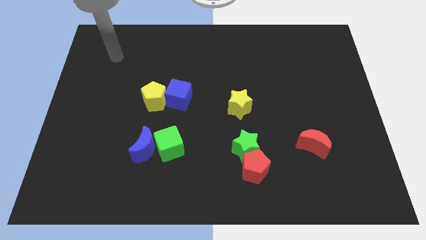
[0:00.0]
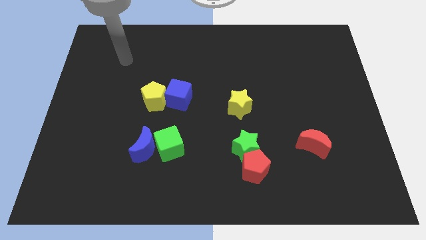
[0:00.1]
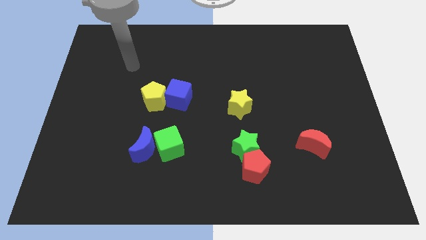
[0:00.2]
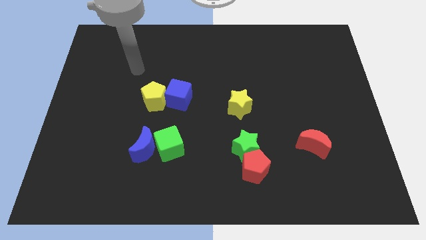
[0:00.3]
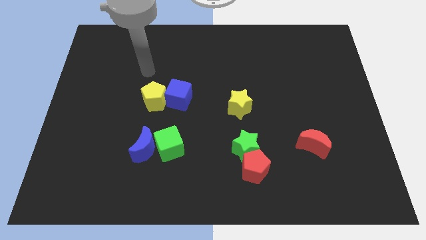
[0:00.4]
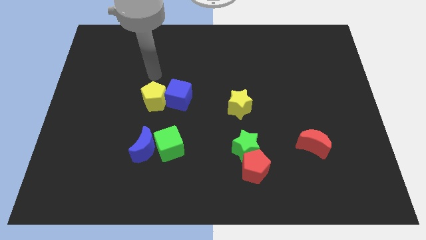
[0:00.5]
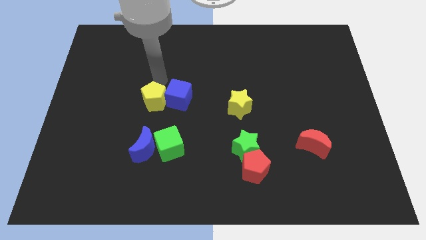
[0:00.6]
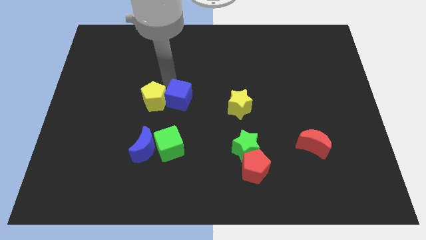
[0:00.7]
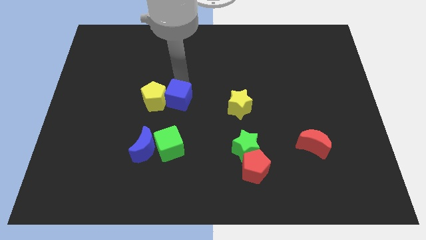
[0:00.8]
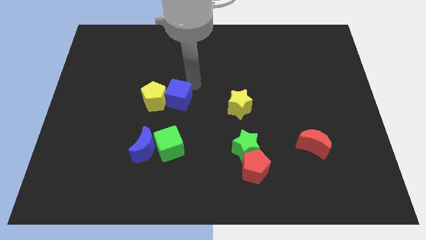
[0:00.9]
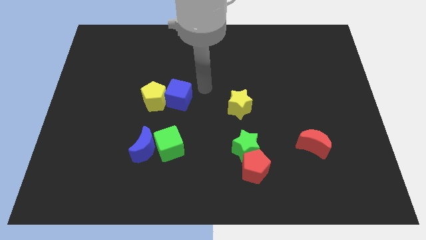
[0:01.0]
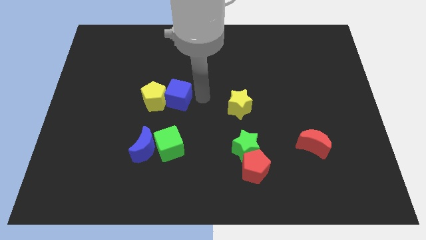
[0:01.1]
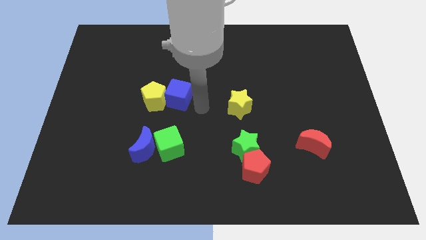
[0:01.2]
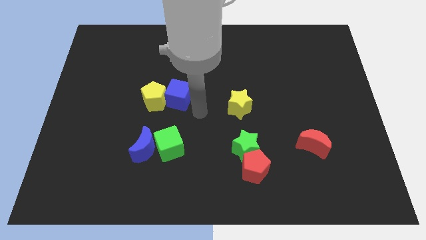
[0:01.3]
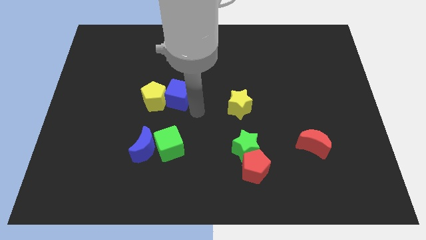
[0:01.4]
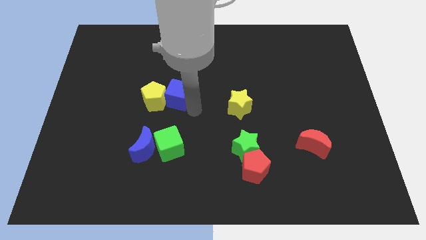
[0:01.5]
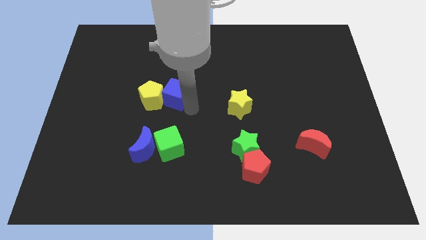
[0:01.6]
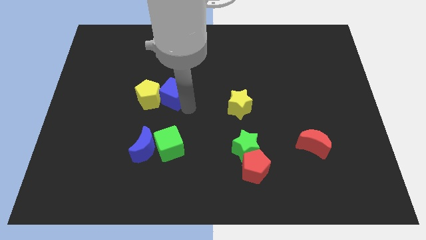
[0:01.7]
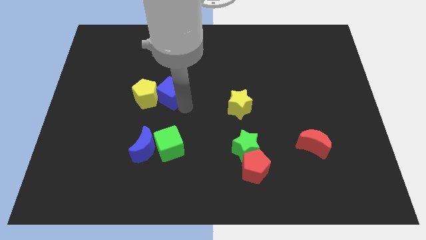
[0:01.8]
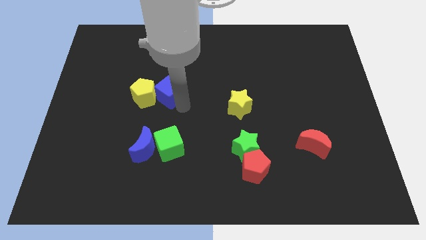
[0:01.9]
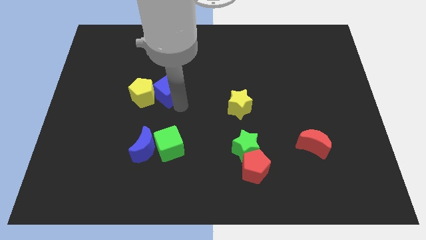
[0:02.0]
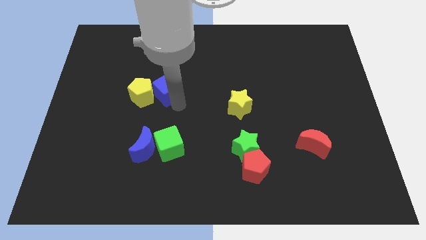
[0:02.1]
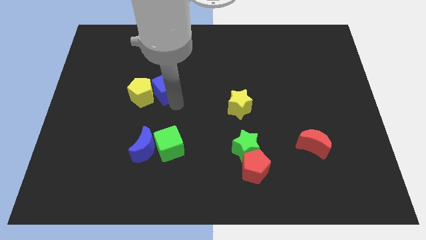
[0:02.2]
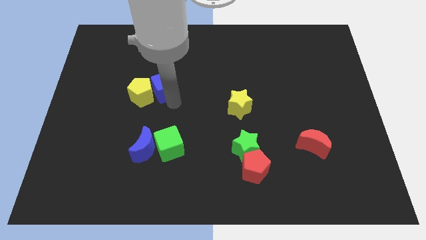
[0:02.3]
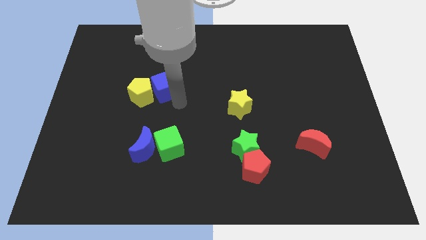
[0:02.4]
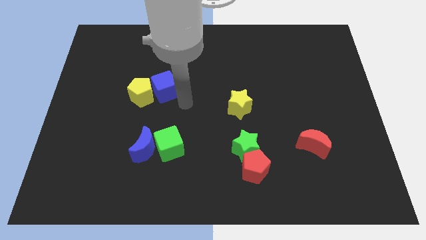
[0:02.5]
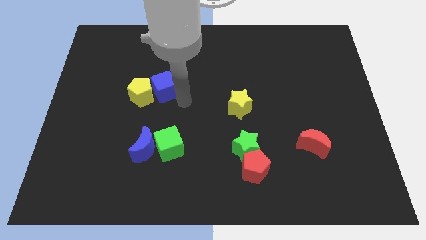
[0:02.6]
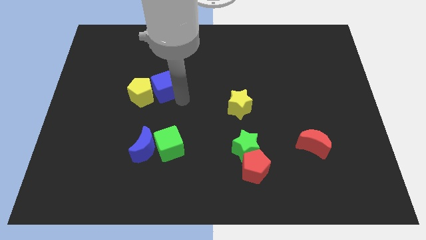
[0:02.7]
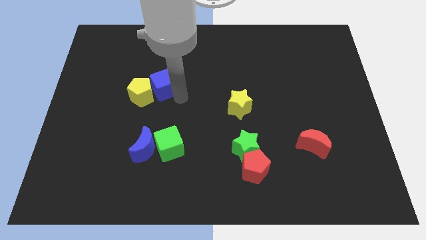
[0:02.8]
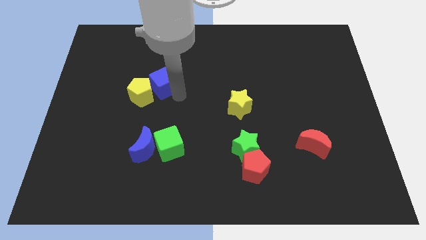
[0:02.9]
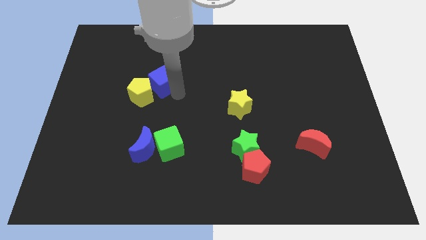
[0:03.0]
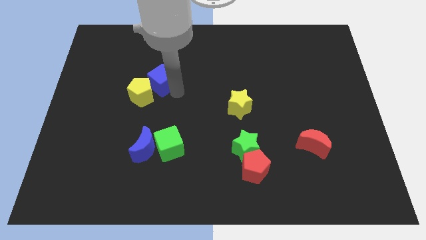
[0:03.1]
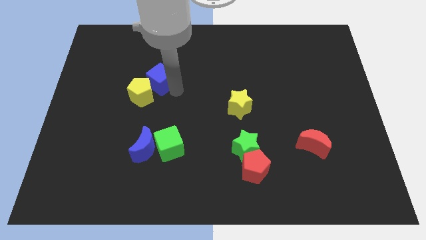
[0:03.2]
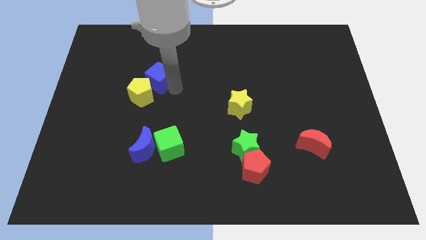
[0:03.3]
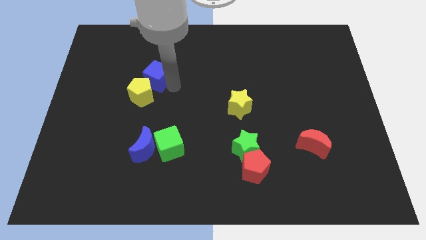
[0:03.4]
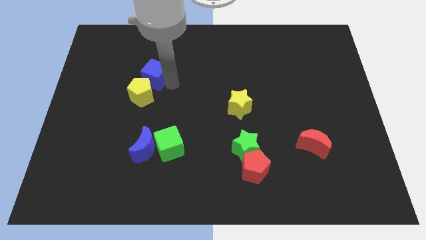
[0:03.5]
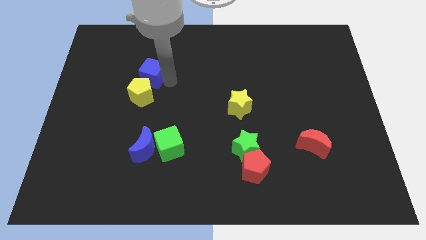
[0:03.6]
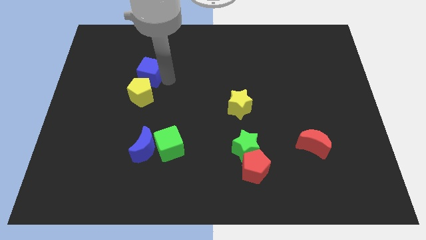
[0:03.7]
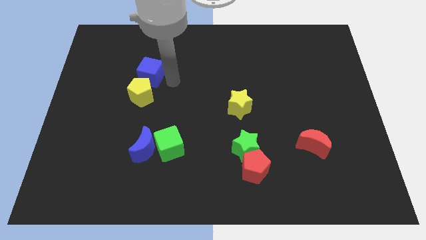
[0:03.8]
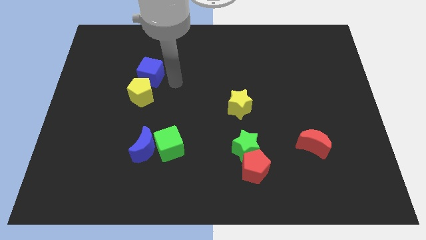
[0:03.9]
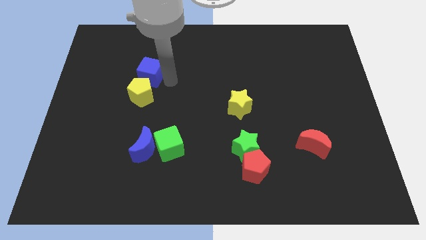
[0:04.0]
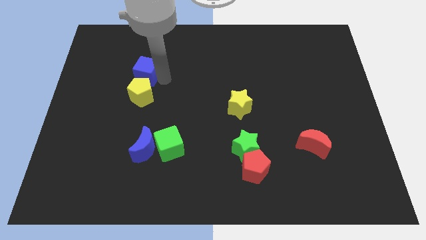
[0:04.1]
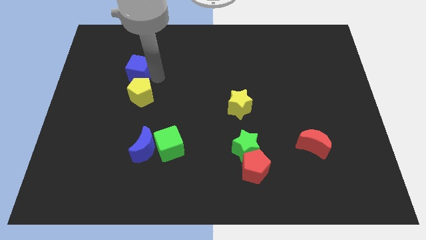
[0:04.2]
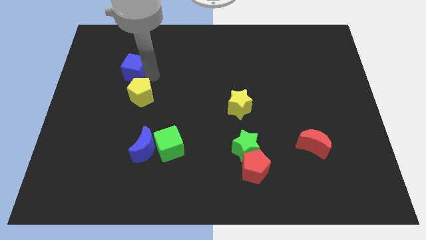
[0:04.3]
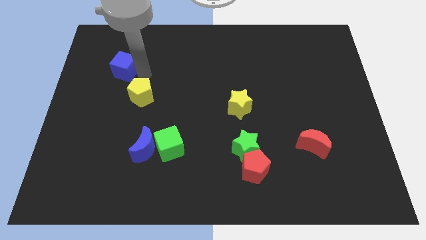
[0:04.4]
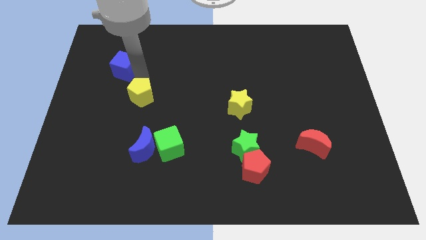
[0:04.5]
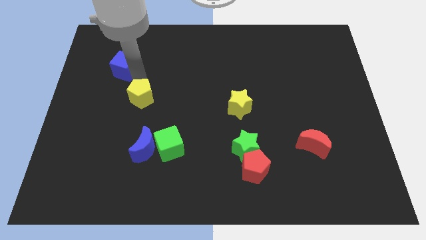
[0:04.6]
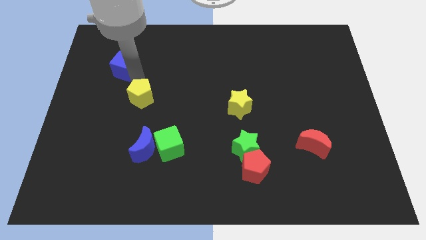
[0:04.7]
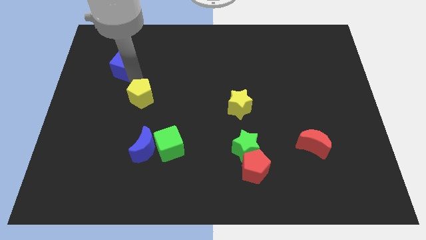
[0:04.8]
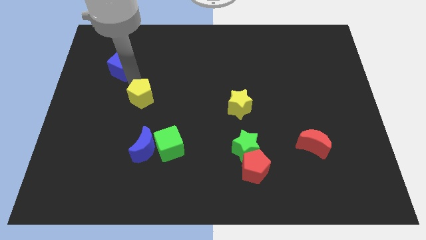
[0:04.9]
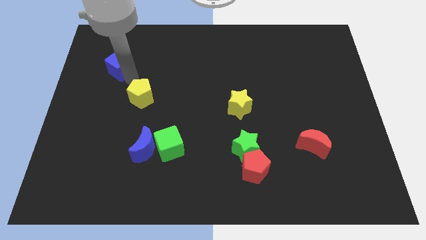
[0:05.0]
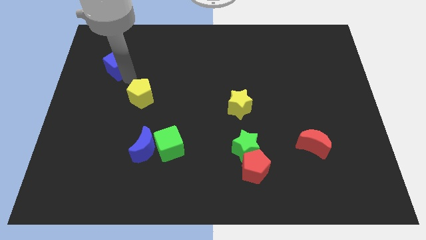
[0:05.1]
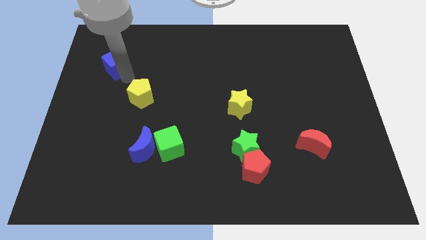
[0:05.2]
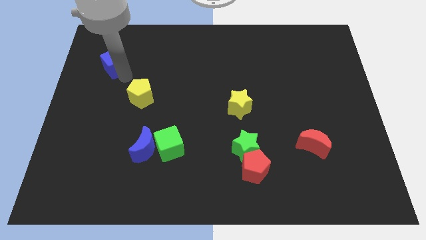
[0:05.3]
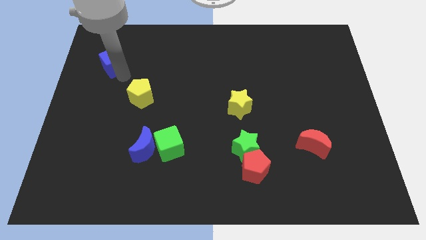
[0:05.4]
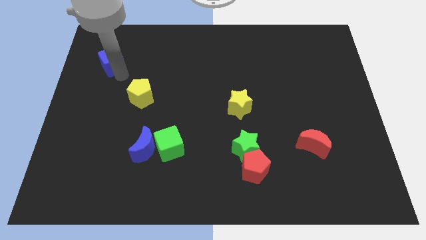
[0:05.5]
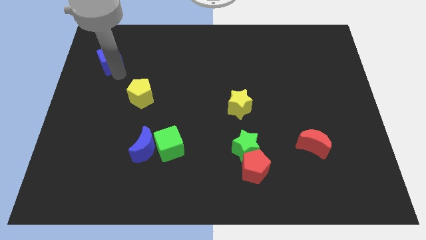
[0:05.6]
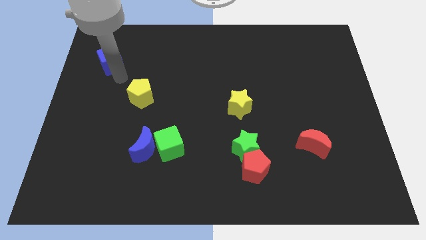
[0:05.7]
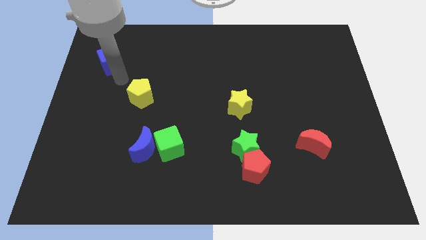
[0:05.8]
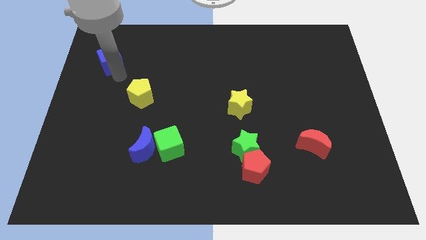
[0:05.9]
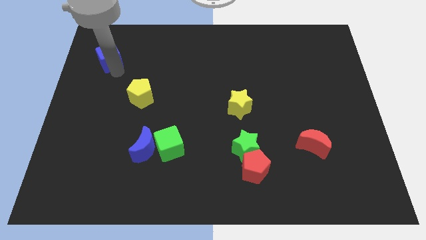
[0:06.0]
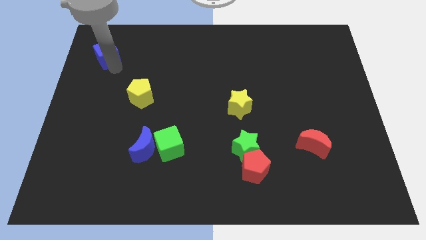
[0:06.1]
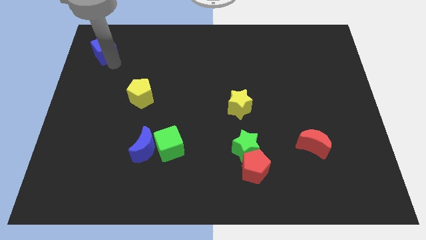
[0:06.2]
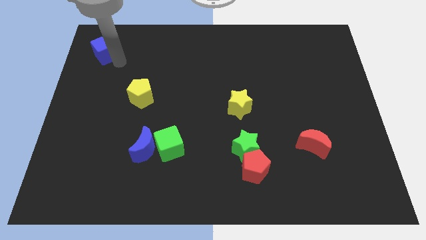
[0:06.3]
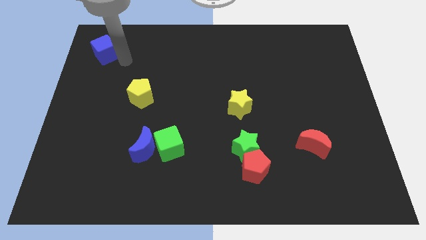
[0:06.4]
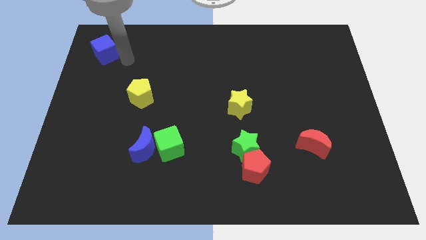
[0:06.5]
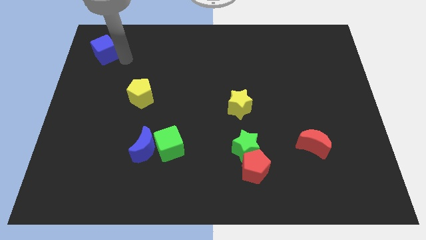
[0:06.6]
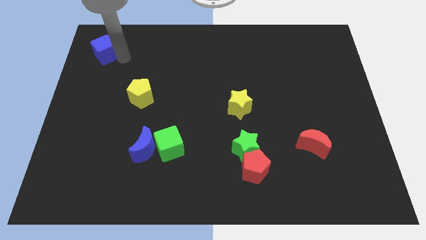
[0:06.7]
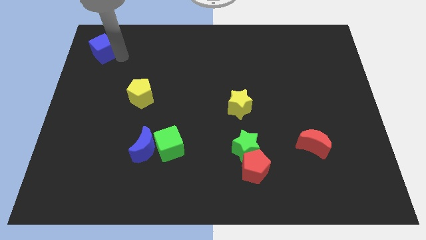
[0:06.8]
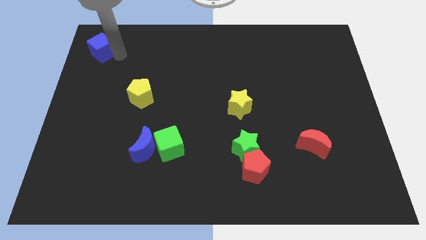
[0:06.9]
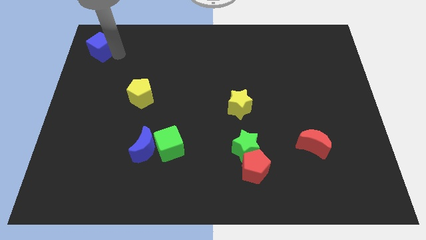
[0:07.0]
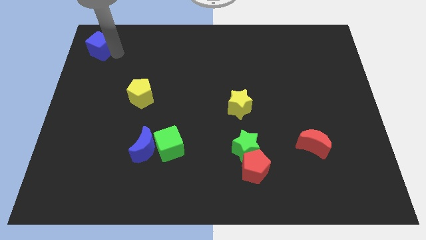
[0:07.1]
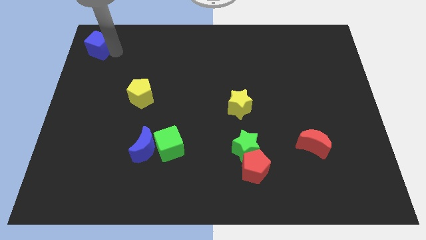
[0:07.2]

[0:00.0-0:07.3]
slide the blue cube to the top left corner
